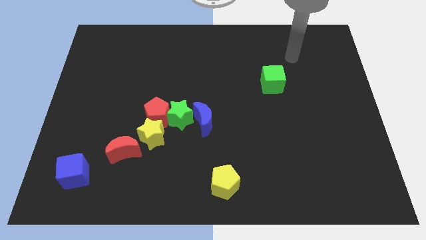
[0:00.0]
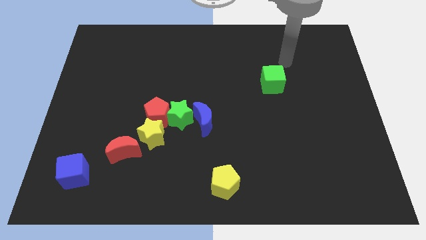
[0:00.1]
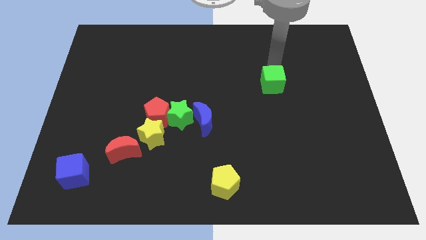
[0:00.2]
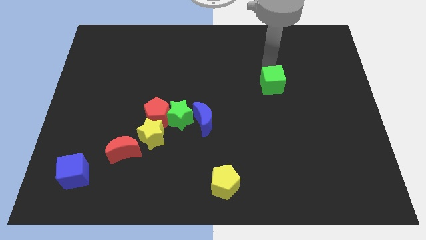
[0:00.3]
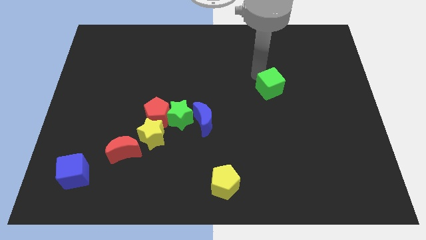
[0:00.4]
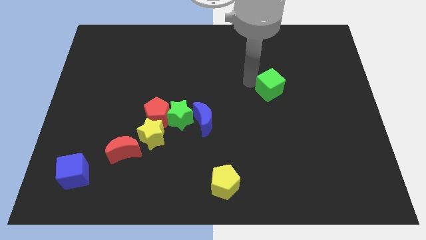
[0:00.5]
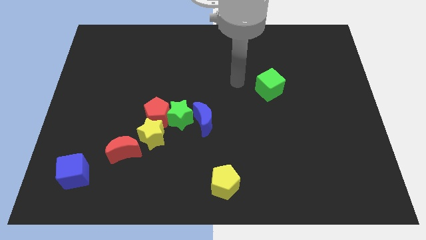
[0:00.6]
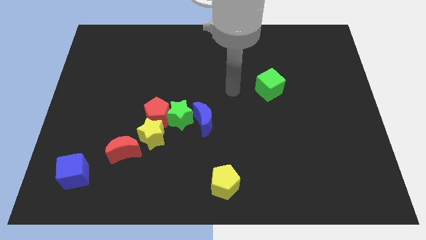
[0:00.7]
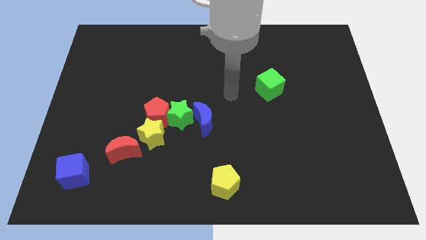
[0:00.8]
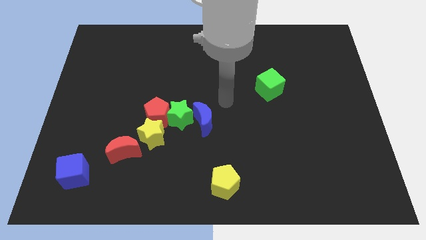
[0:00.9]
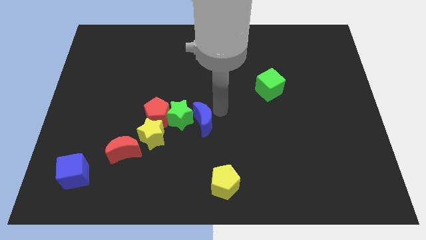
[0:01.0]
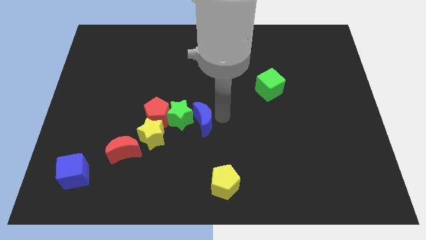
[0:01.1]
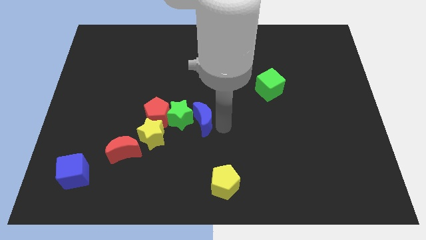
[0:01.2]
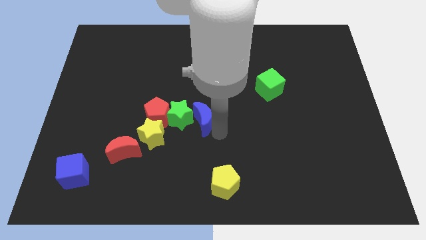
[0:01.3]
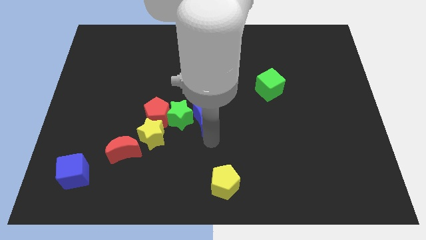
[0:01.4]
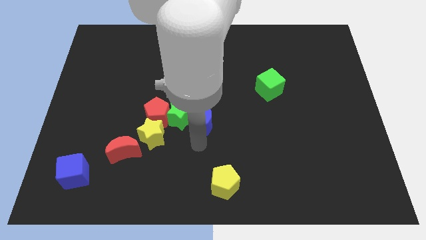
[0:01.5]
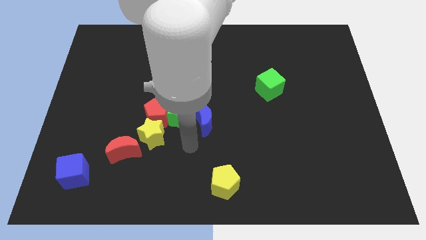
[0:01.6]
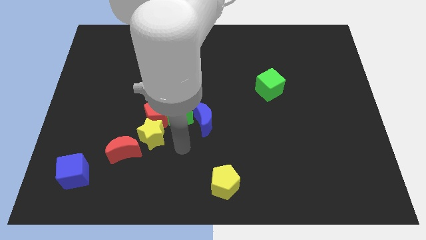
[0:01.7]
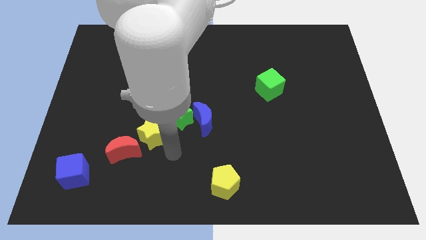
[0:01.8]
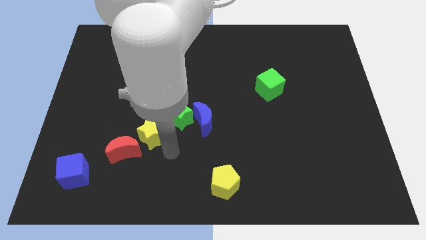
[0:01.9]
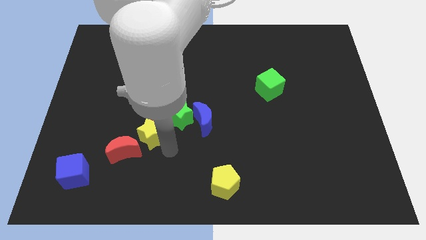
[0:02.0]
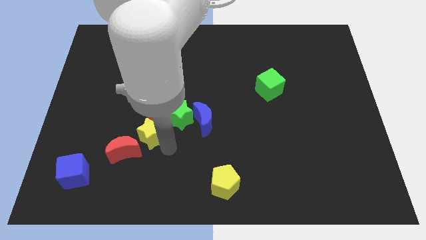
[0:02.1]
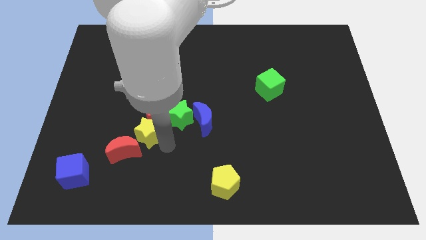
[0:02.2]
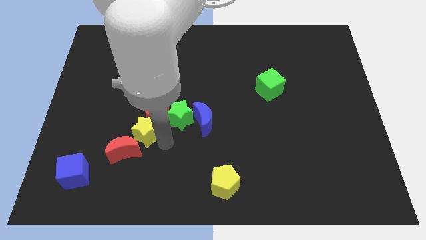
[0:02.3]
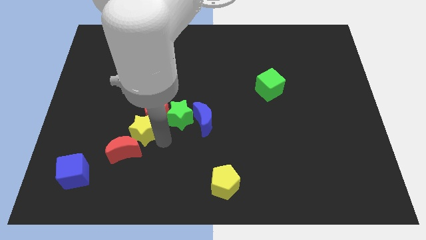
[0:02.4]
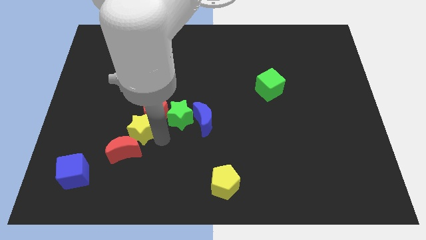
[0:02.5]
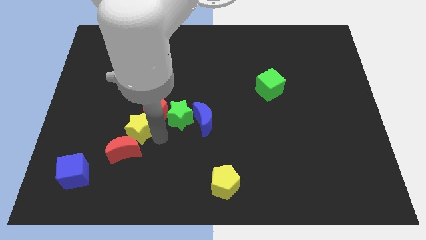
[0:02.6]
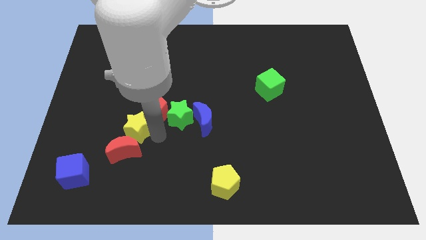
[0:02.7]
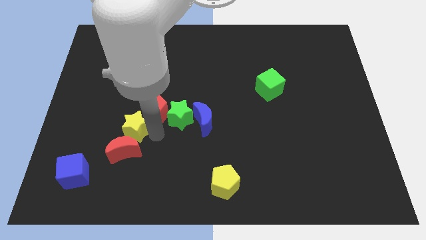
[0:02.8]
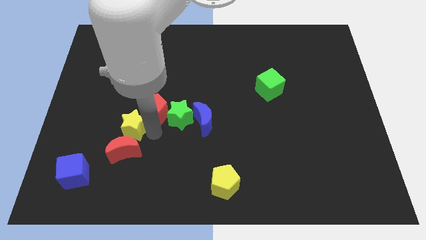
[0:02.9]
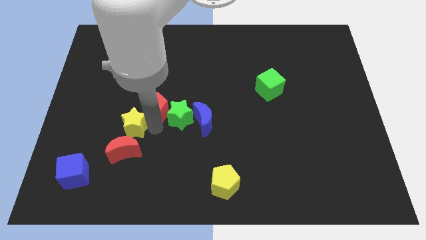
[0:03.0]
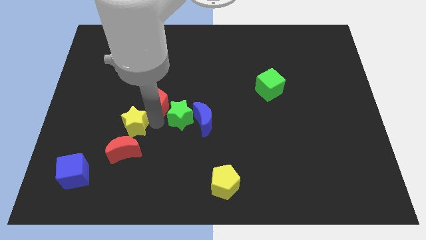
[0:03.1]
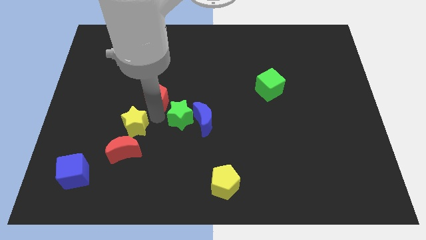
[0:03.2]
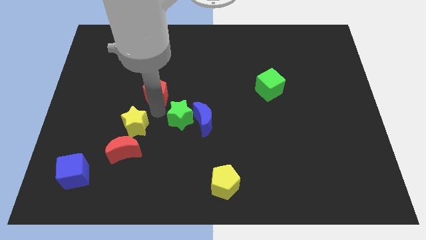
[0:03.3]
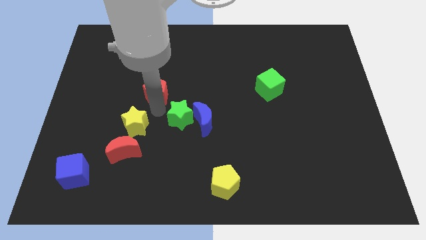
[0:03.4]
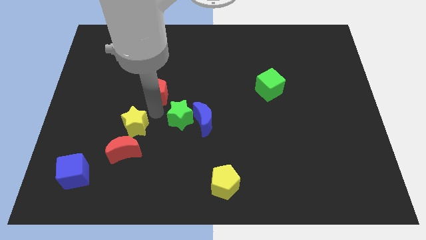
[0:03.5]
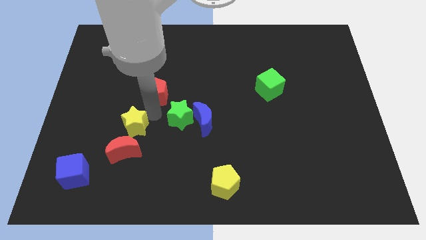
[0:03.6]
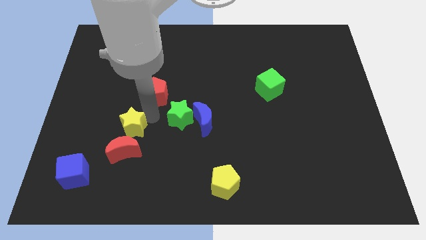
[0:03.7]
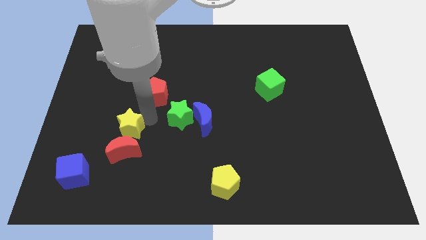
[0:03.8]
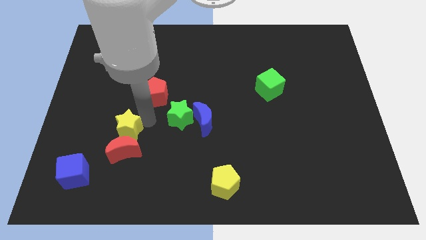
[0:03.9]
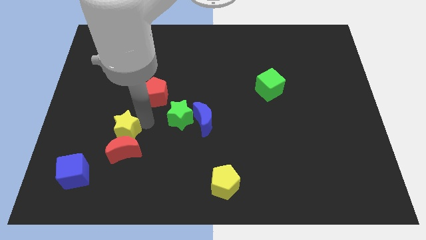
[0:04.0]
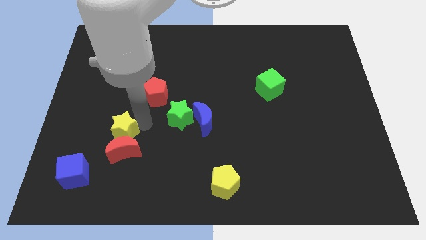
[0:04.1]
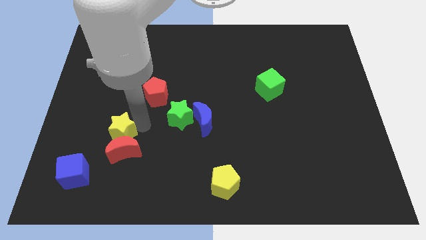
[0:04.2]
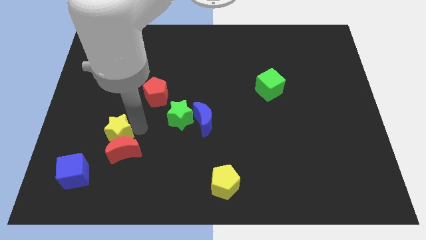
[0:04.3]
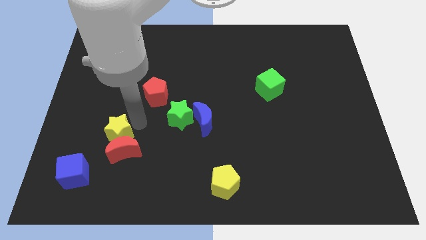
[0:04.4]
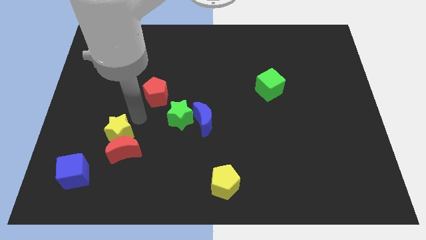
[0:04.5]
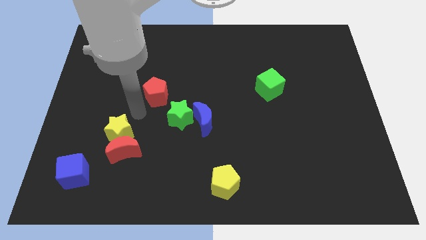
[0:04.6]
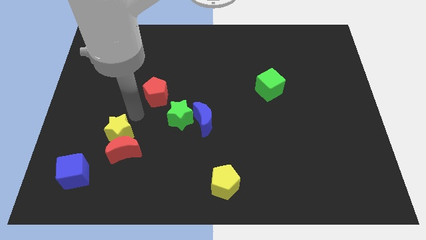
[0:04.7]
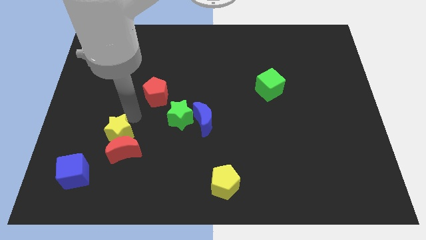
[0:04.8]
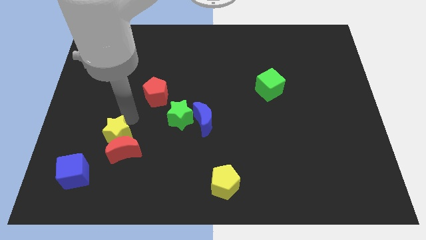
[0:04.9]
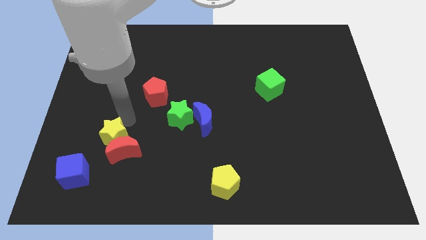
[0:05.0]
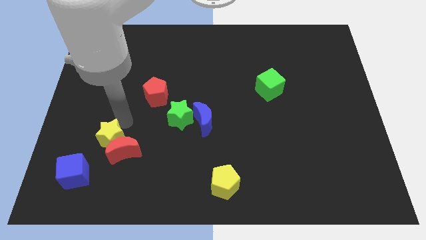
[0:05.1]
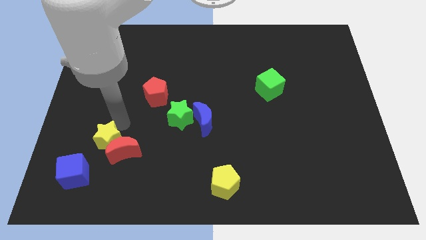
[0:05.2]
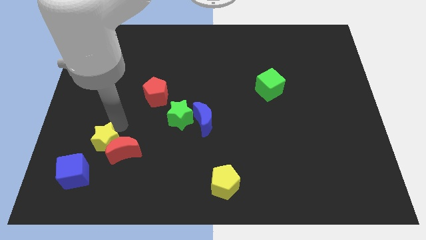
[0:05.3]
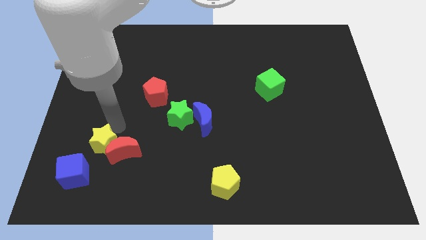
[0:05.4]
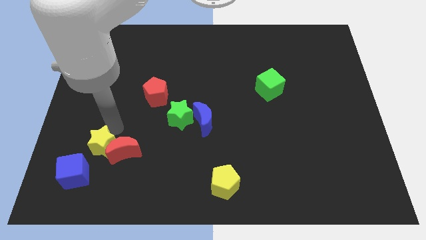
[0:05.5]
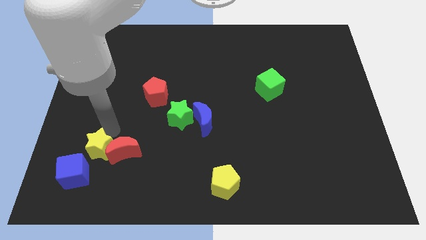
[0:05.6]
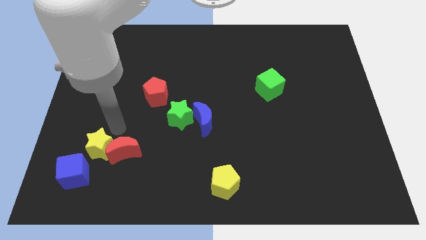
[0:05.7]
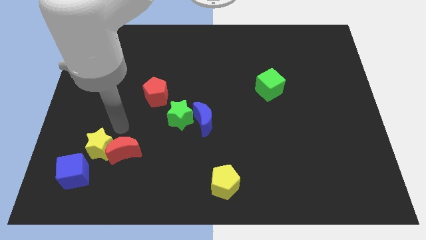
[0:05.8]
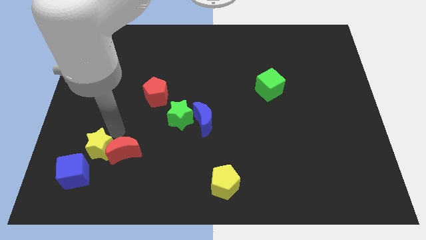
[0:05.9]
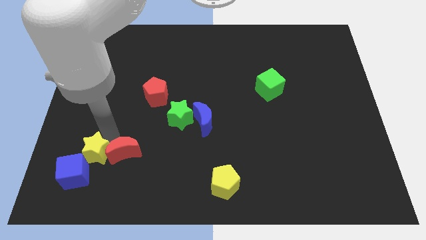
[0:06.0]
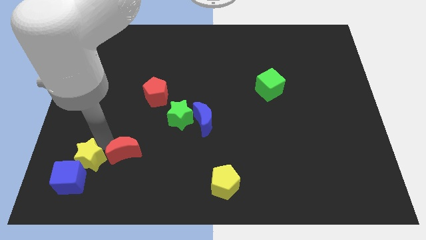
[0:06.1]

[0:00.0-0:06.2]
slide the yellow star next to the blue cube

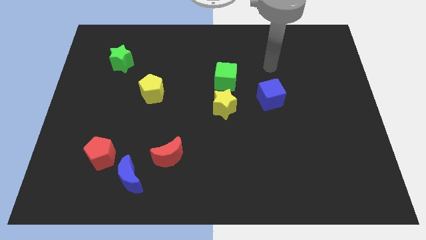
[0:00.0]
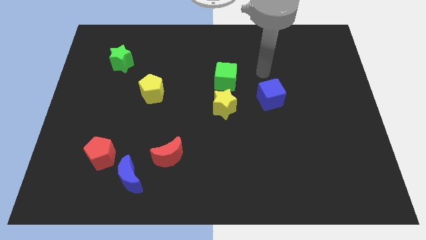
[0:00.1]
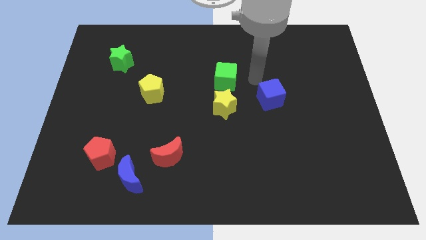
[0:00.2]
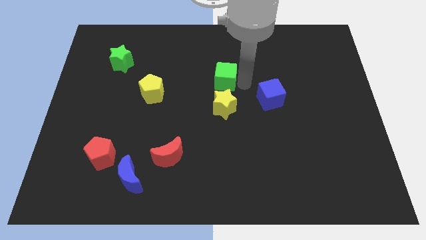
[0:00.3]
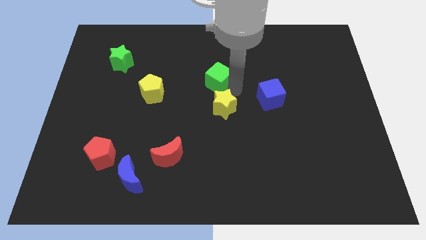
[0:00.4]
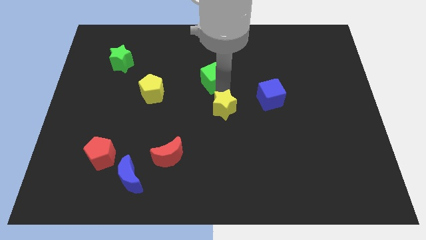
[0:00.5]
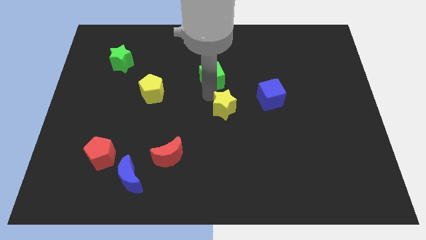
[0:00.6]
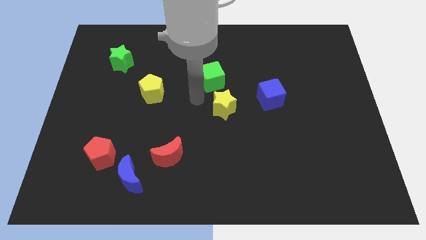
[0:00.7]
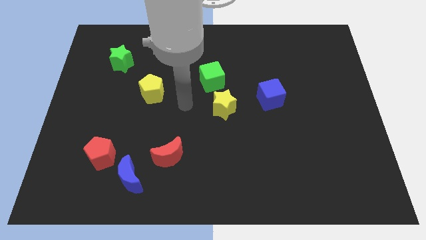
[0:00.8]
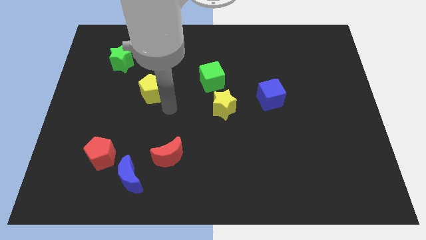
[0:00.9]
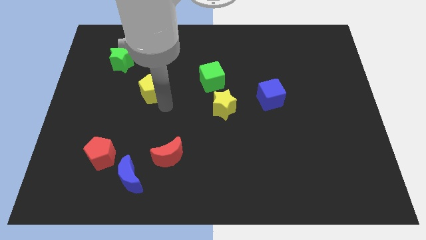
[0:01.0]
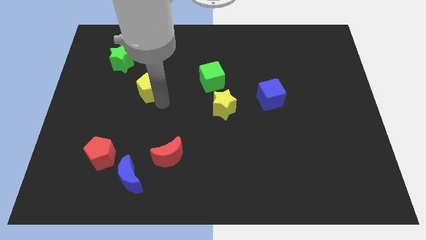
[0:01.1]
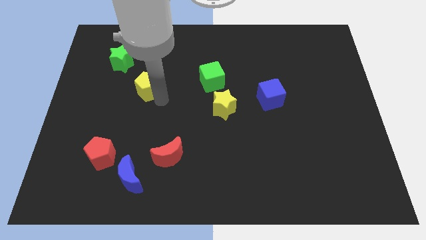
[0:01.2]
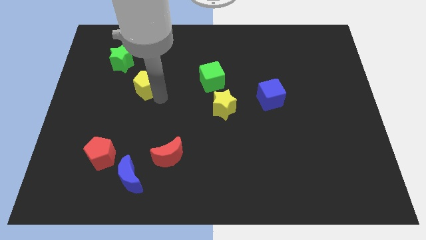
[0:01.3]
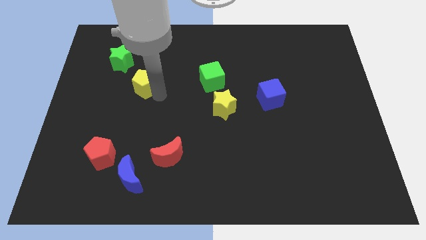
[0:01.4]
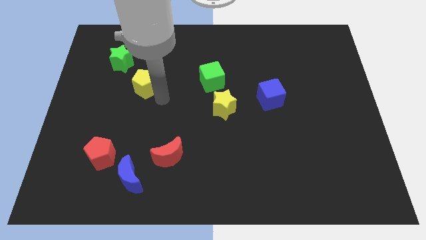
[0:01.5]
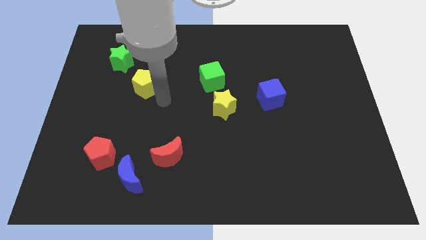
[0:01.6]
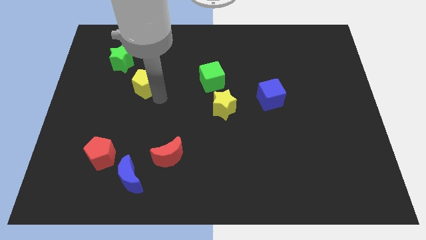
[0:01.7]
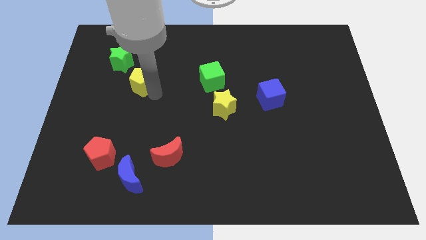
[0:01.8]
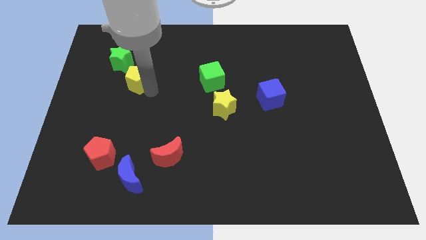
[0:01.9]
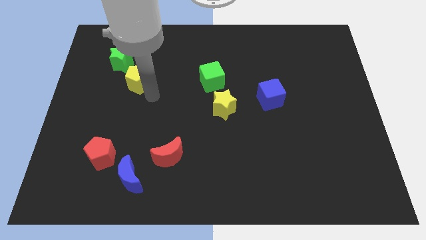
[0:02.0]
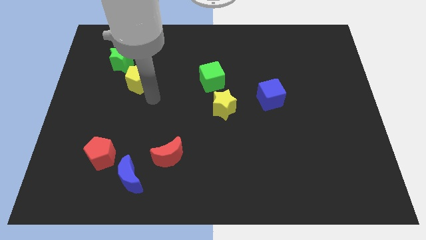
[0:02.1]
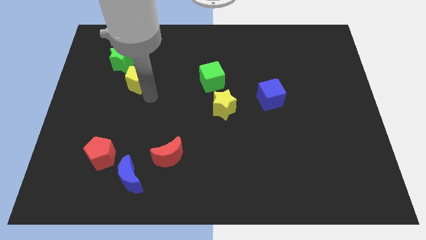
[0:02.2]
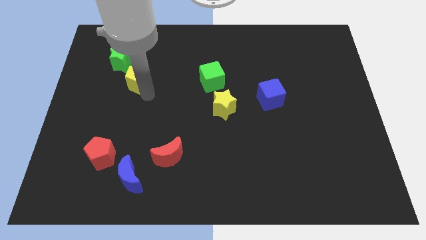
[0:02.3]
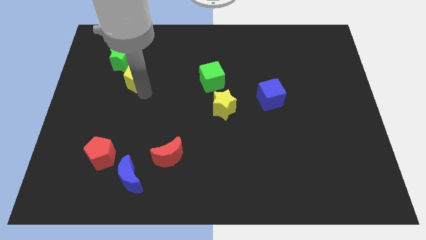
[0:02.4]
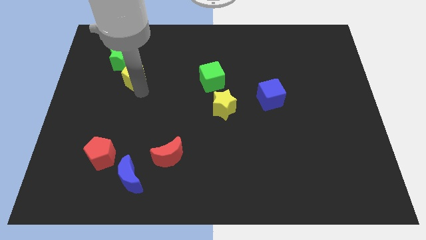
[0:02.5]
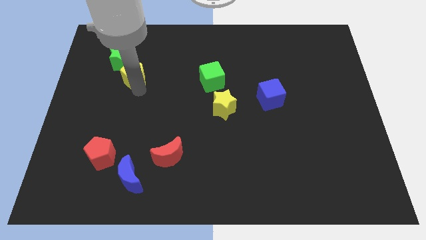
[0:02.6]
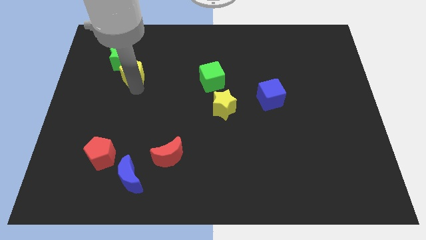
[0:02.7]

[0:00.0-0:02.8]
move the yellow pentagon close to the green star
